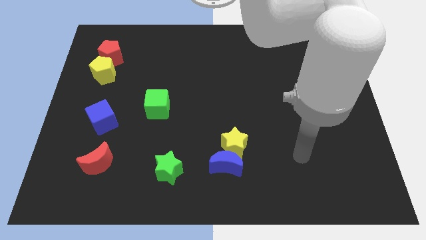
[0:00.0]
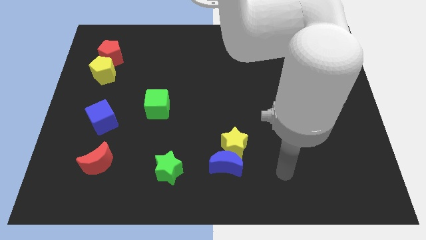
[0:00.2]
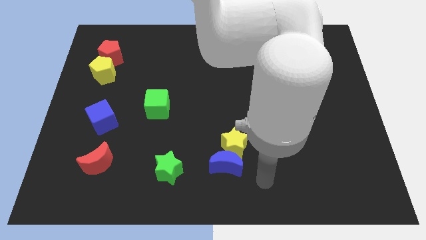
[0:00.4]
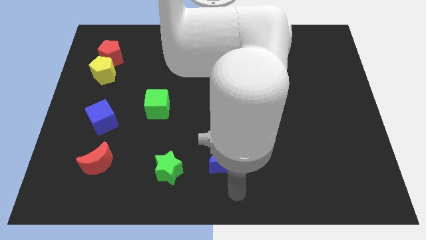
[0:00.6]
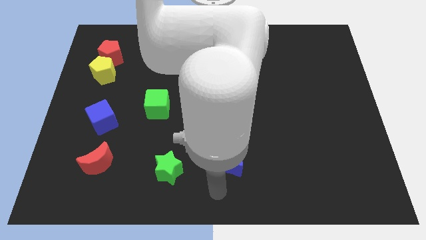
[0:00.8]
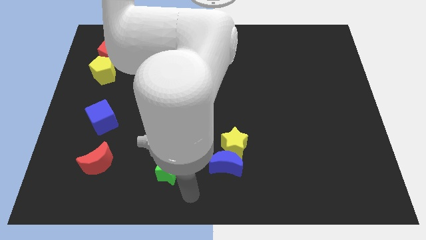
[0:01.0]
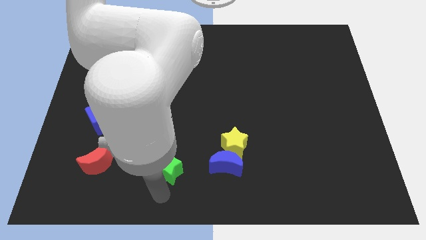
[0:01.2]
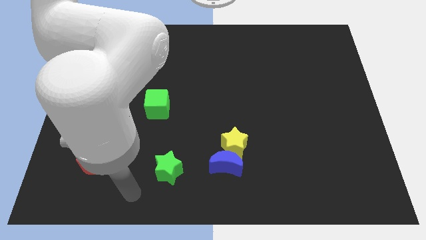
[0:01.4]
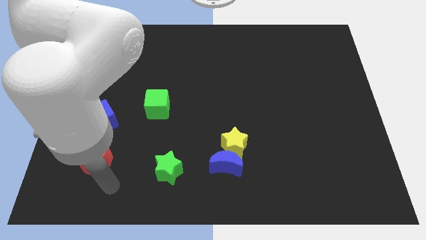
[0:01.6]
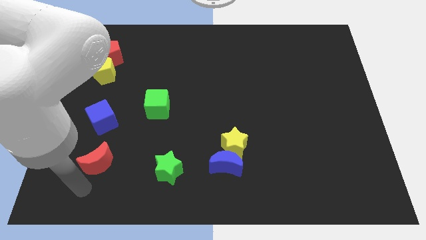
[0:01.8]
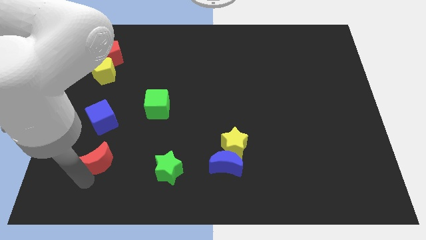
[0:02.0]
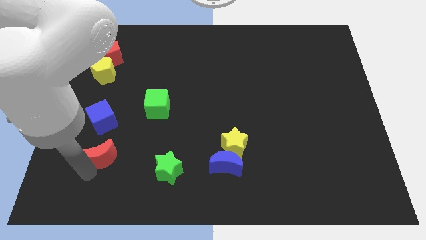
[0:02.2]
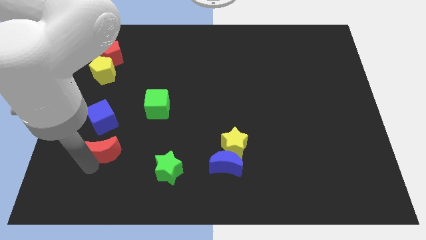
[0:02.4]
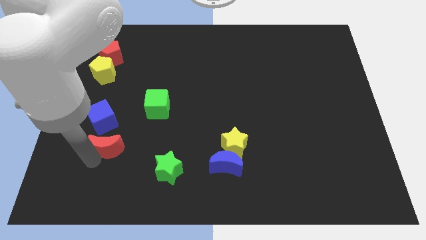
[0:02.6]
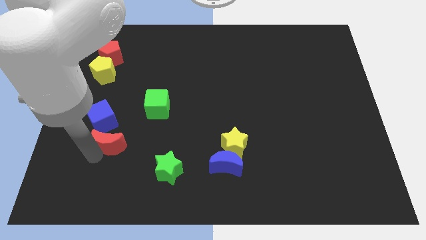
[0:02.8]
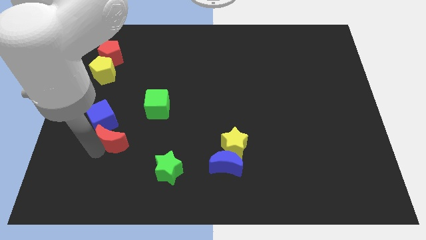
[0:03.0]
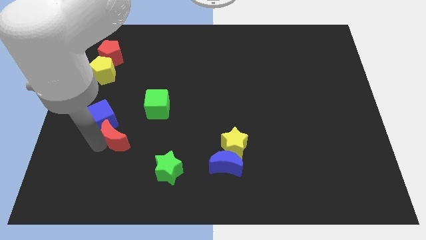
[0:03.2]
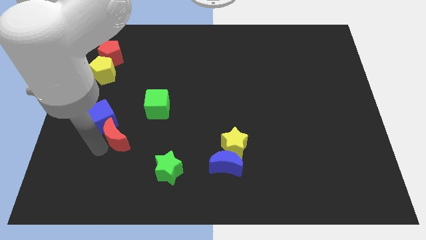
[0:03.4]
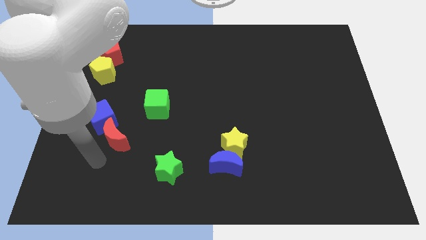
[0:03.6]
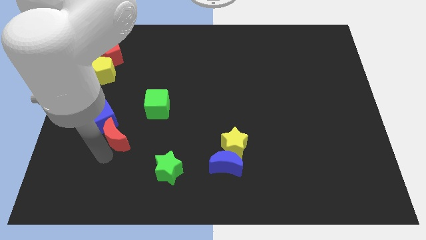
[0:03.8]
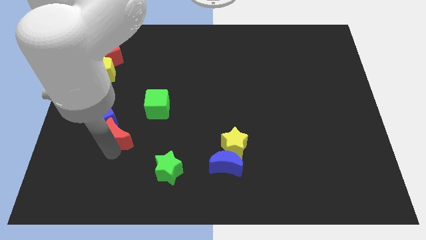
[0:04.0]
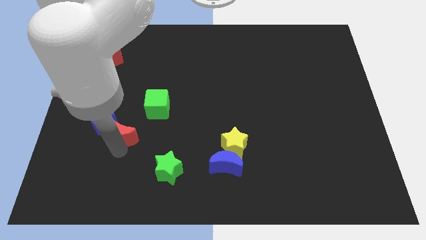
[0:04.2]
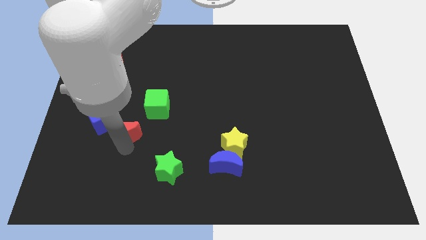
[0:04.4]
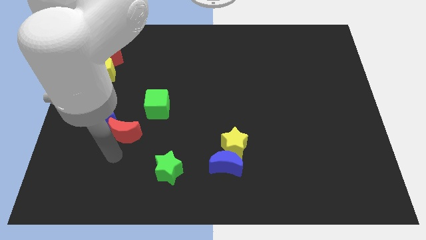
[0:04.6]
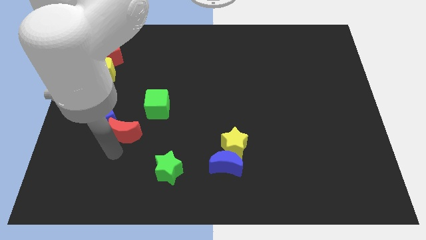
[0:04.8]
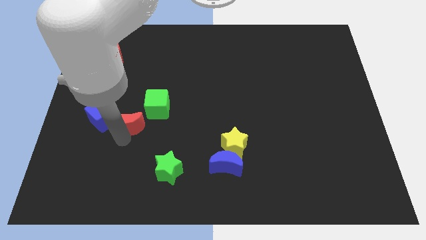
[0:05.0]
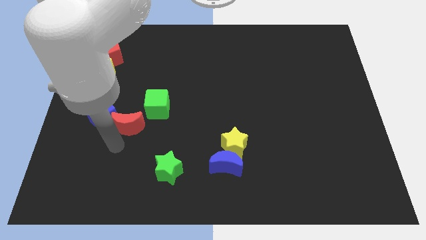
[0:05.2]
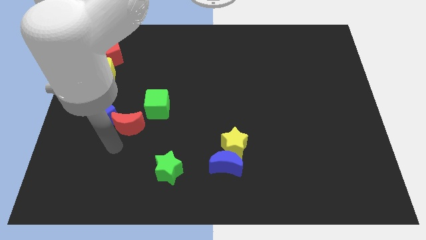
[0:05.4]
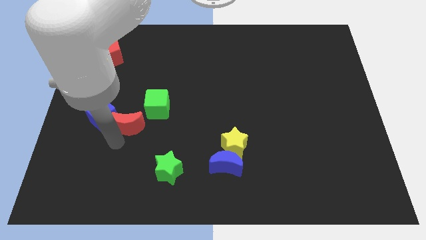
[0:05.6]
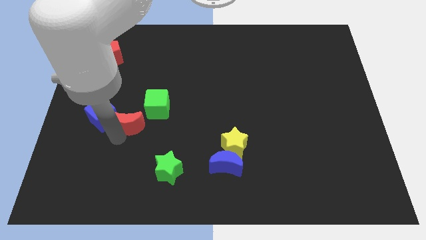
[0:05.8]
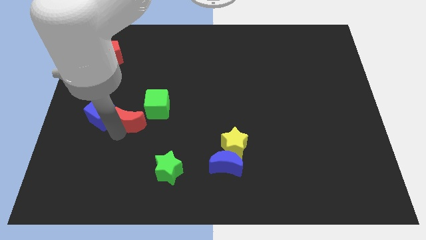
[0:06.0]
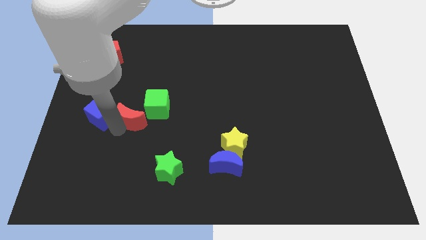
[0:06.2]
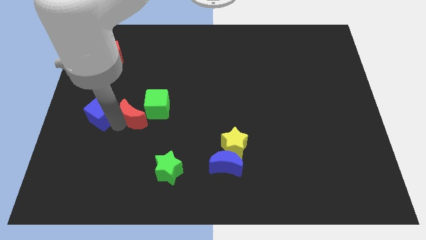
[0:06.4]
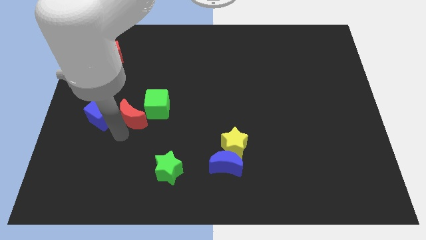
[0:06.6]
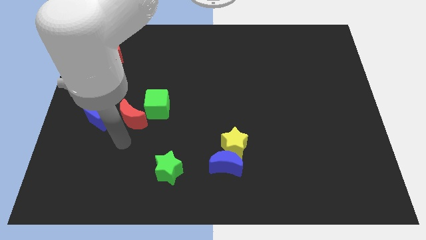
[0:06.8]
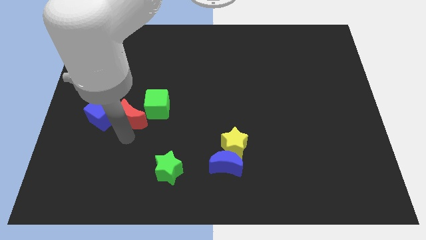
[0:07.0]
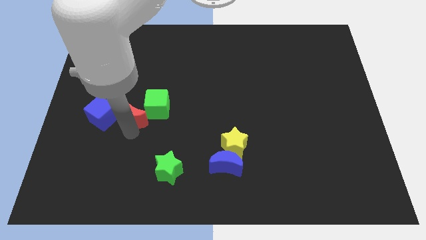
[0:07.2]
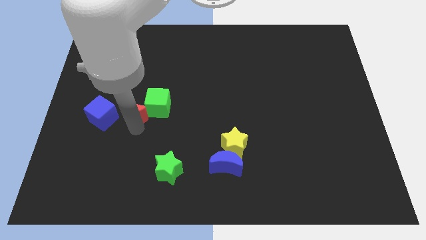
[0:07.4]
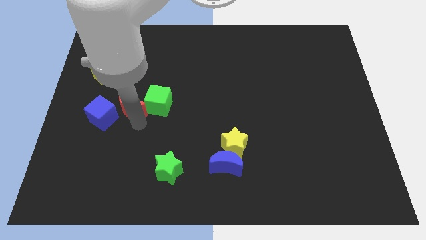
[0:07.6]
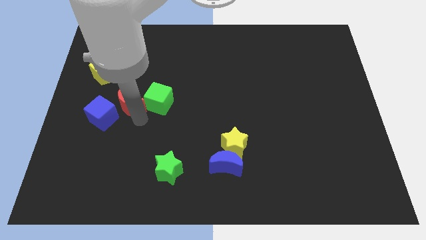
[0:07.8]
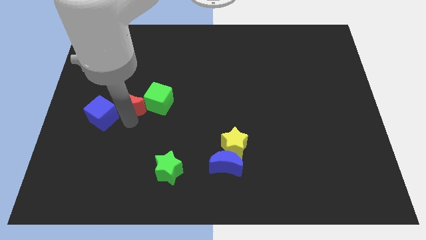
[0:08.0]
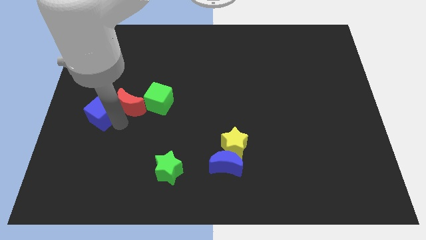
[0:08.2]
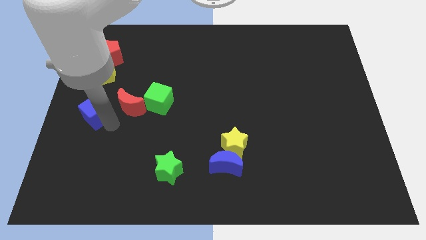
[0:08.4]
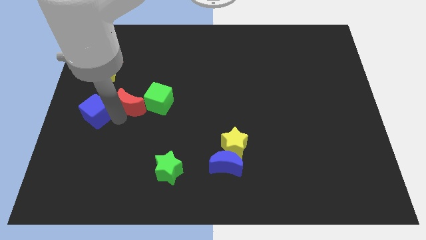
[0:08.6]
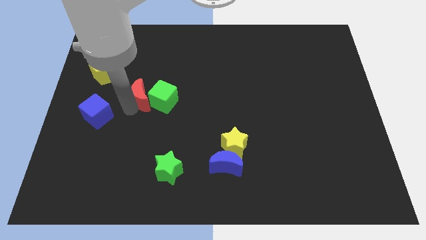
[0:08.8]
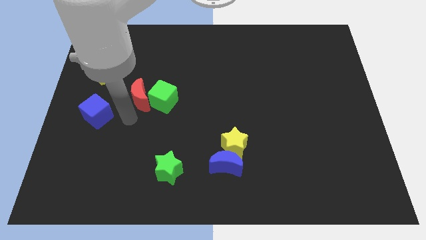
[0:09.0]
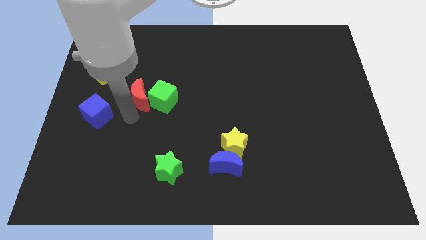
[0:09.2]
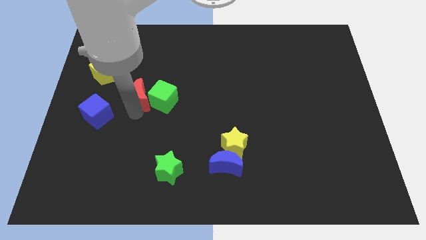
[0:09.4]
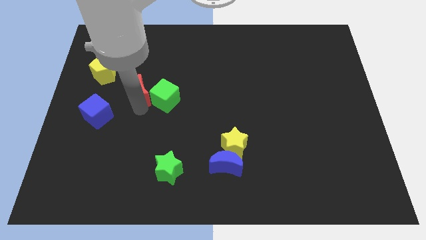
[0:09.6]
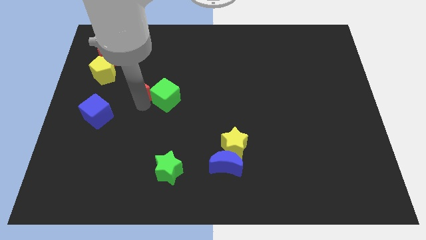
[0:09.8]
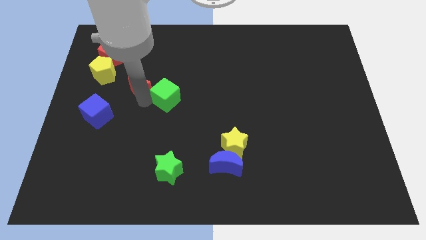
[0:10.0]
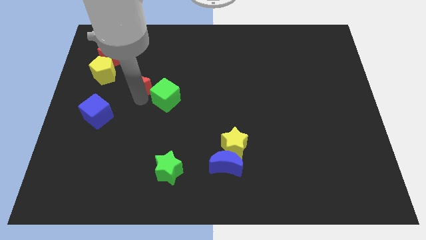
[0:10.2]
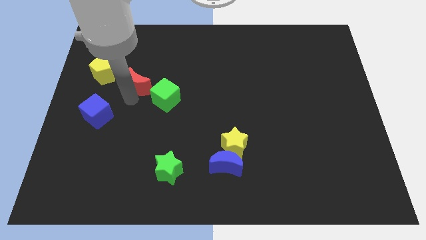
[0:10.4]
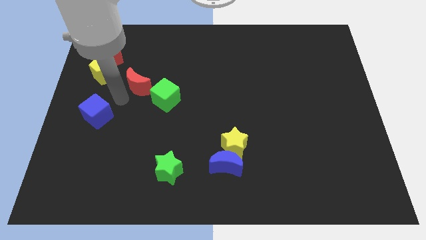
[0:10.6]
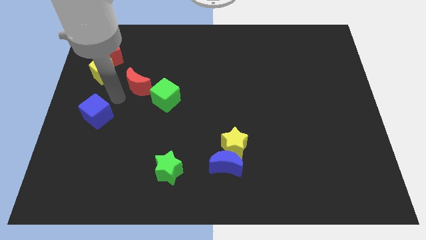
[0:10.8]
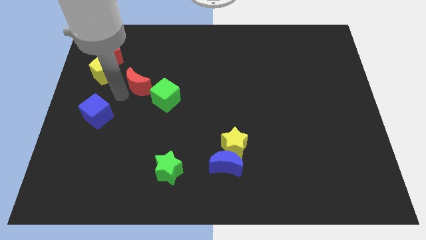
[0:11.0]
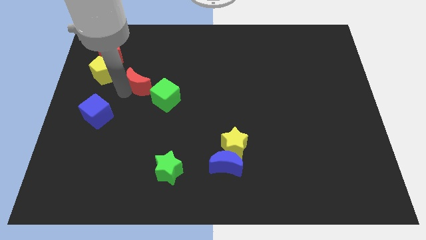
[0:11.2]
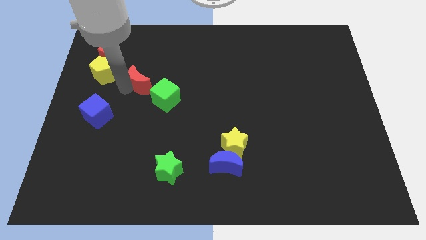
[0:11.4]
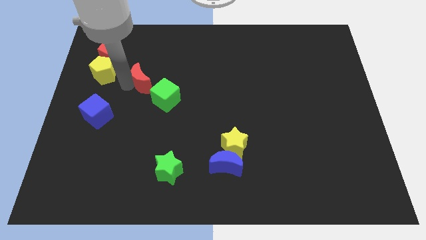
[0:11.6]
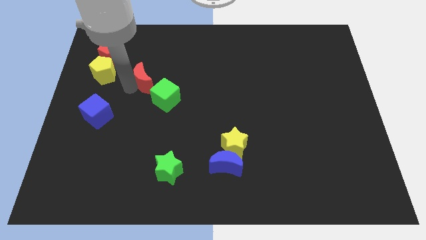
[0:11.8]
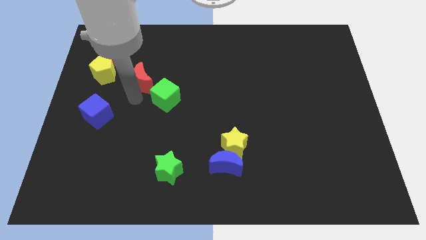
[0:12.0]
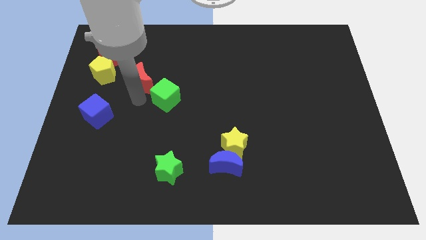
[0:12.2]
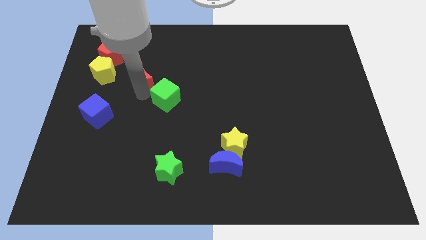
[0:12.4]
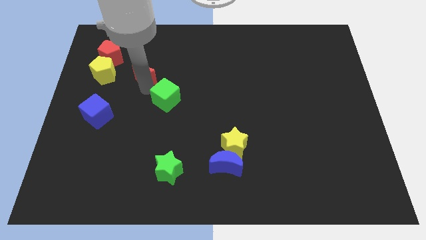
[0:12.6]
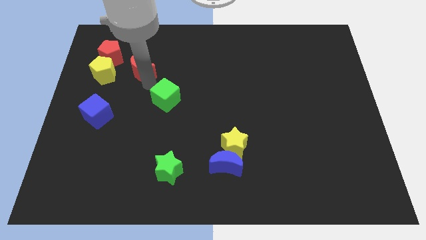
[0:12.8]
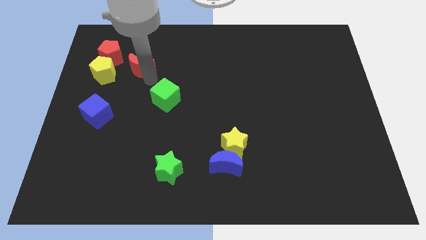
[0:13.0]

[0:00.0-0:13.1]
move the red moon just right of the red pentagon
